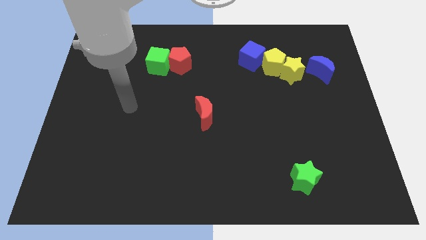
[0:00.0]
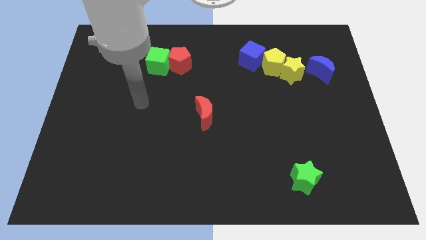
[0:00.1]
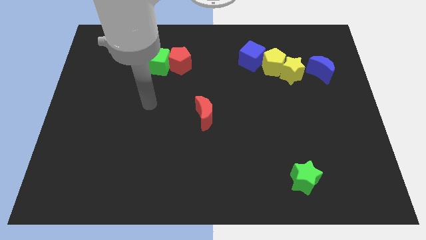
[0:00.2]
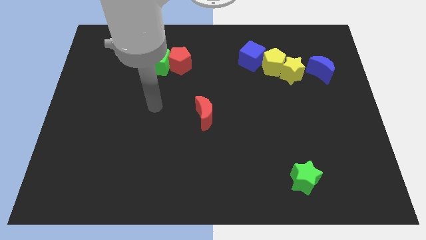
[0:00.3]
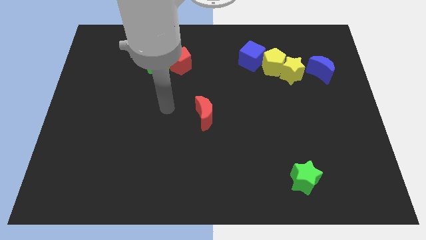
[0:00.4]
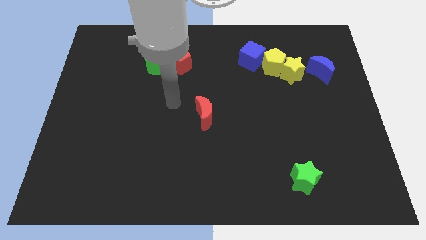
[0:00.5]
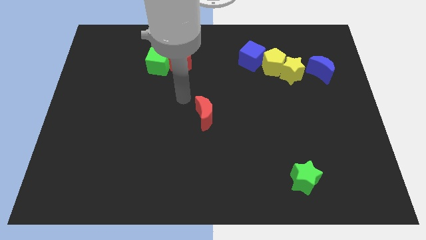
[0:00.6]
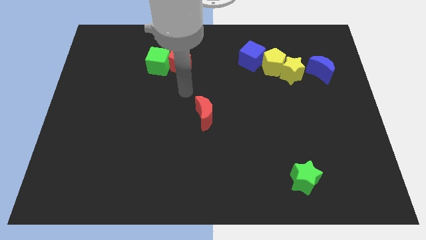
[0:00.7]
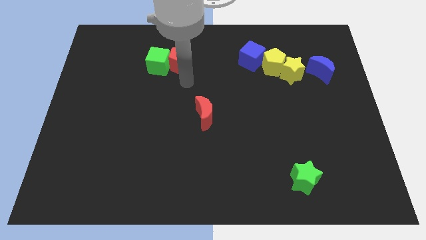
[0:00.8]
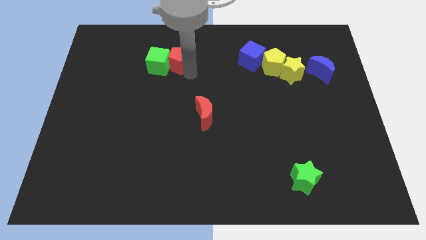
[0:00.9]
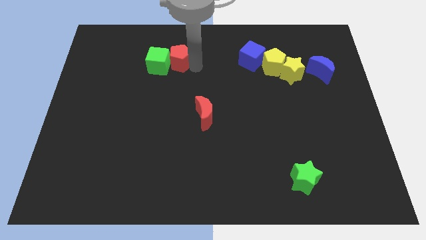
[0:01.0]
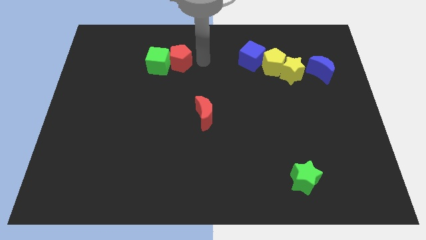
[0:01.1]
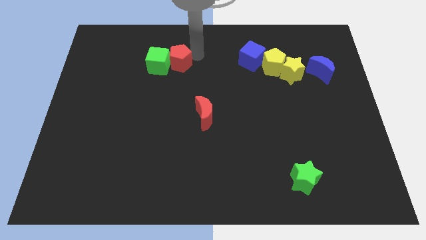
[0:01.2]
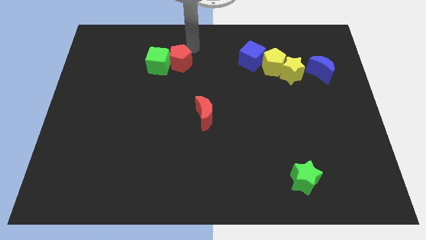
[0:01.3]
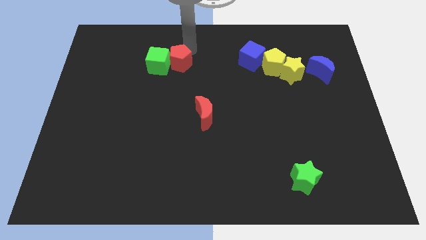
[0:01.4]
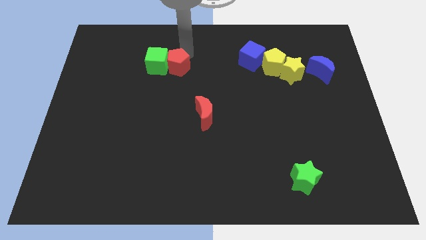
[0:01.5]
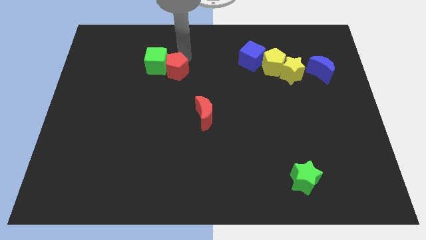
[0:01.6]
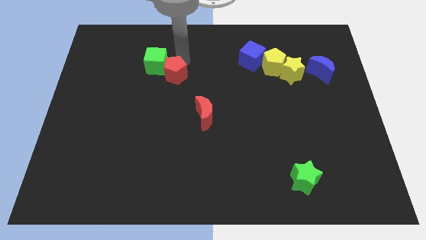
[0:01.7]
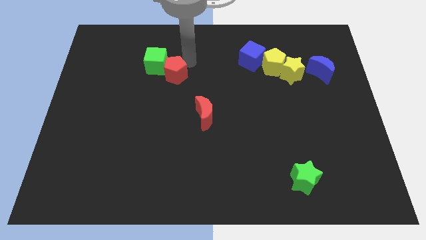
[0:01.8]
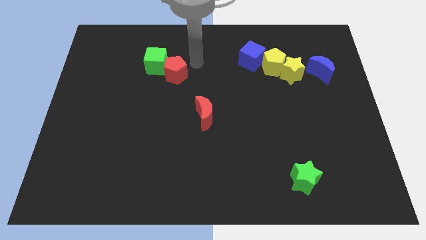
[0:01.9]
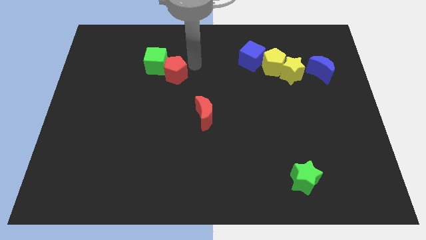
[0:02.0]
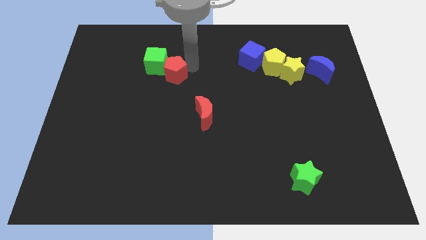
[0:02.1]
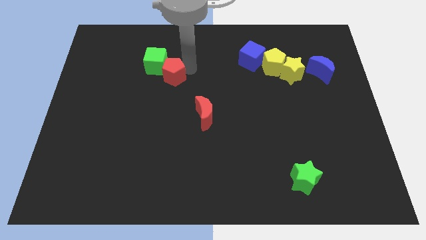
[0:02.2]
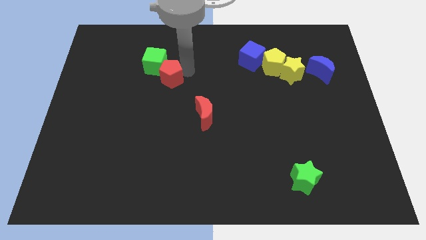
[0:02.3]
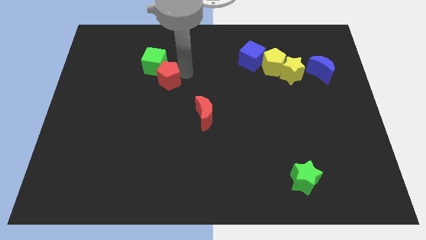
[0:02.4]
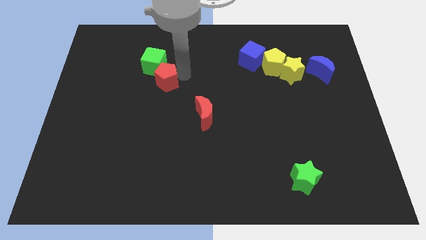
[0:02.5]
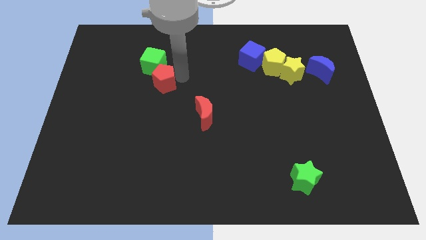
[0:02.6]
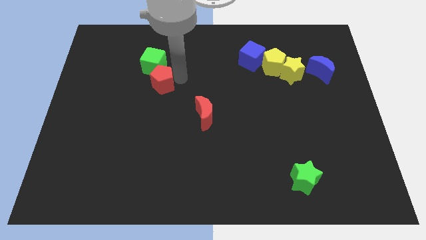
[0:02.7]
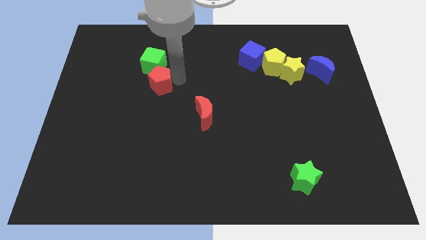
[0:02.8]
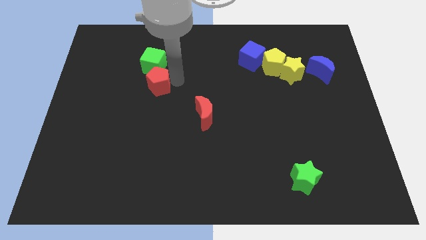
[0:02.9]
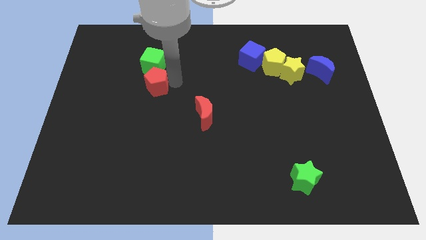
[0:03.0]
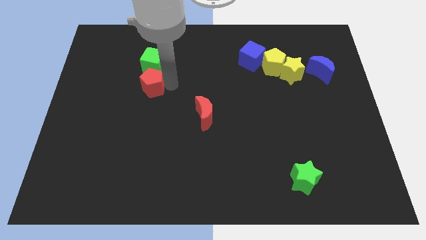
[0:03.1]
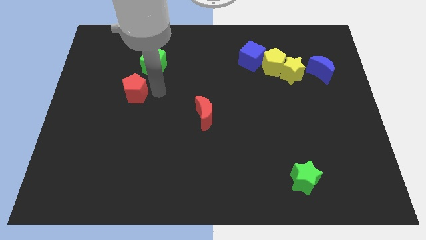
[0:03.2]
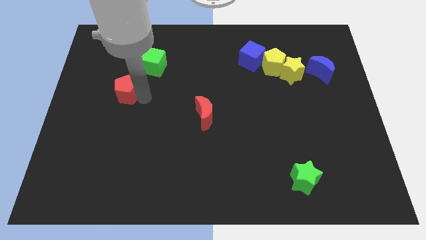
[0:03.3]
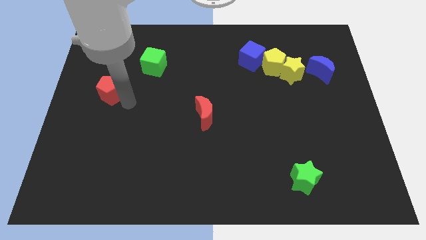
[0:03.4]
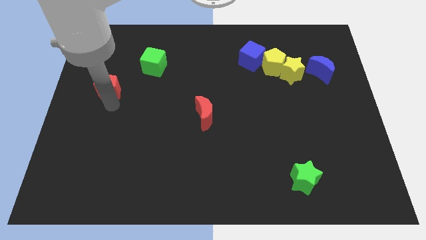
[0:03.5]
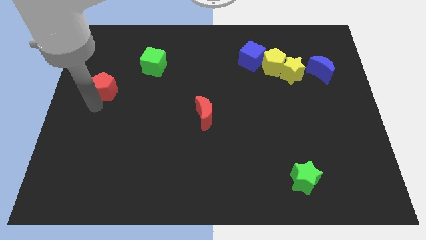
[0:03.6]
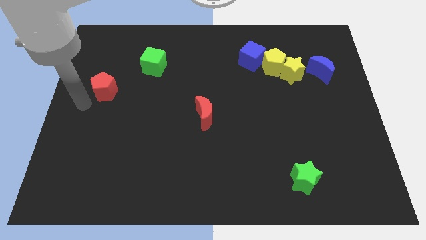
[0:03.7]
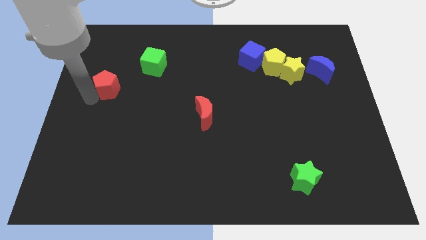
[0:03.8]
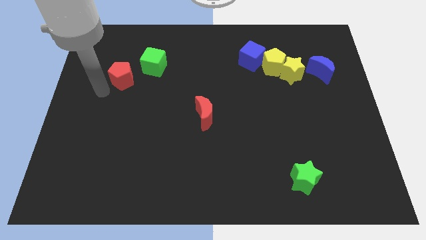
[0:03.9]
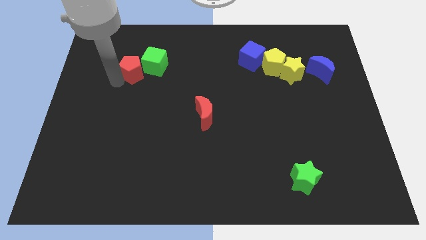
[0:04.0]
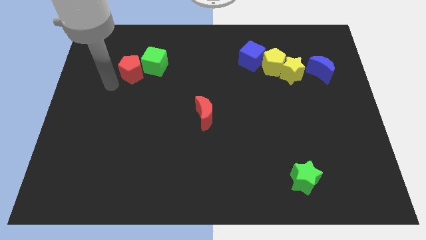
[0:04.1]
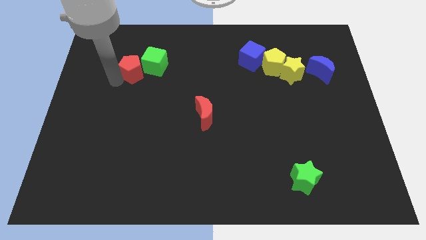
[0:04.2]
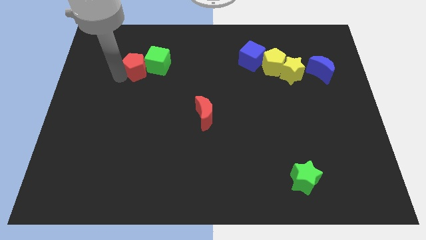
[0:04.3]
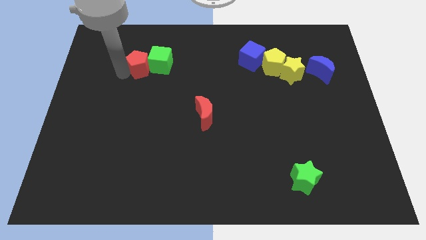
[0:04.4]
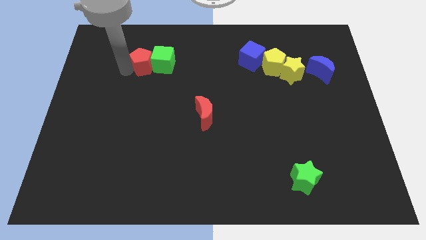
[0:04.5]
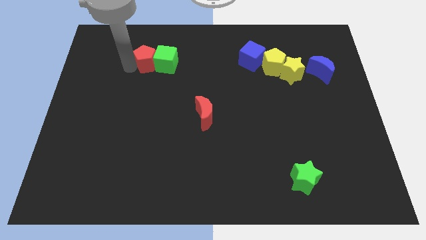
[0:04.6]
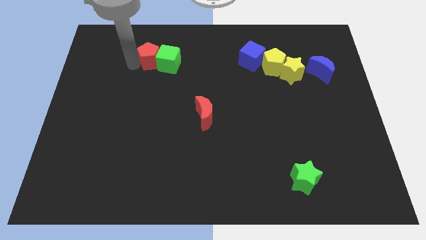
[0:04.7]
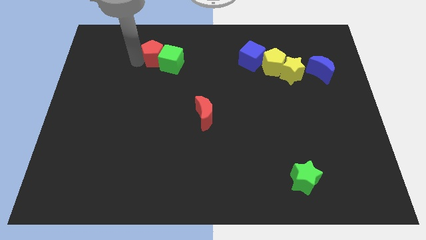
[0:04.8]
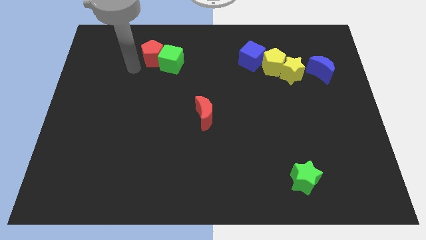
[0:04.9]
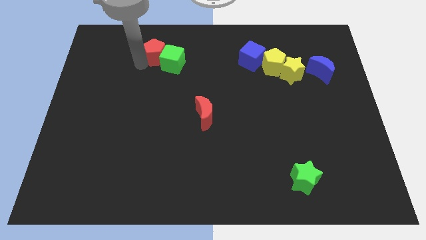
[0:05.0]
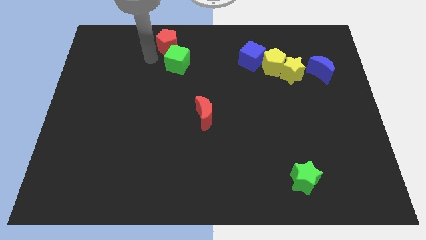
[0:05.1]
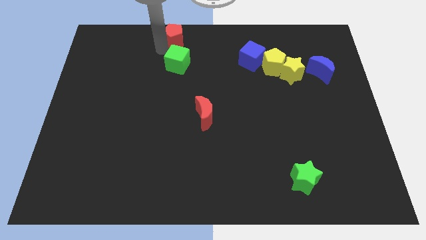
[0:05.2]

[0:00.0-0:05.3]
put the red pentagon to the top side

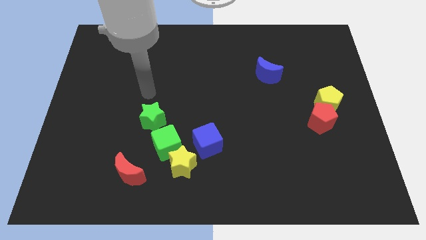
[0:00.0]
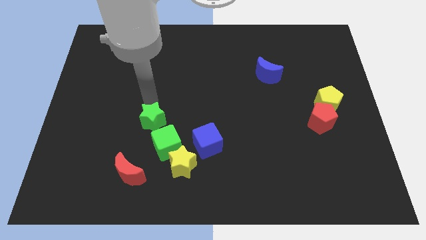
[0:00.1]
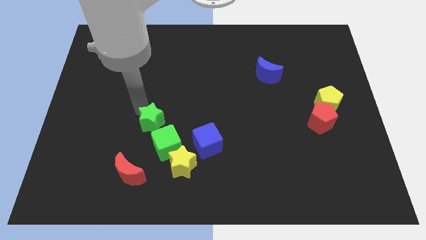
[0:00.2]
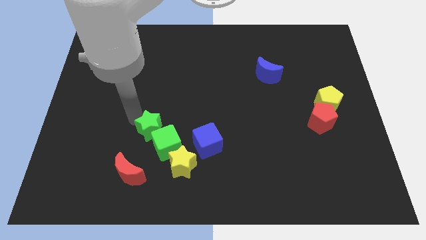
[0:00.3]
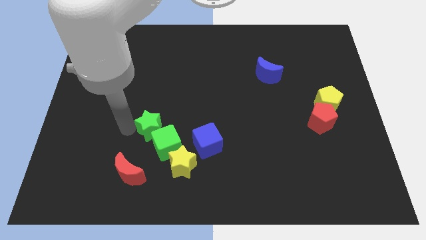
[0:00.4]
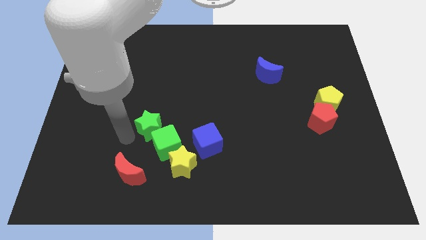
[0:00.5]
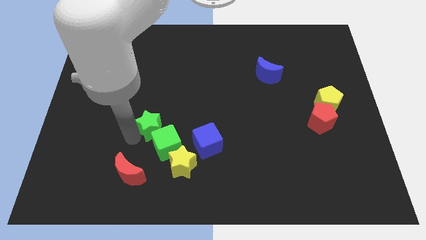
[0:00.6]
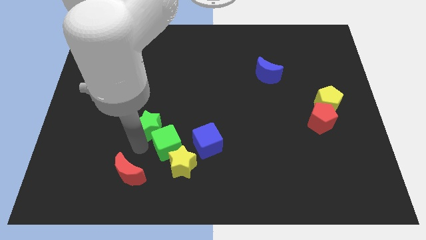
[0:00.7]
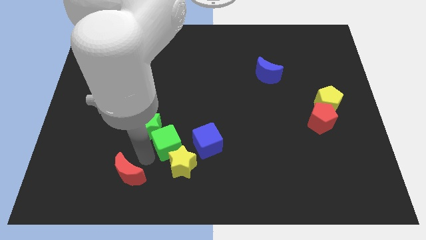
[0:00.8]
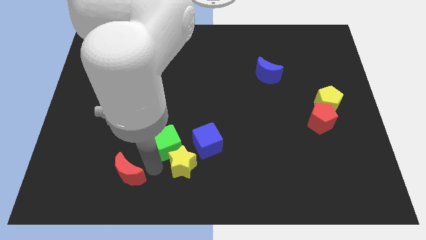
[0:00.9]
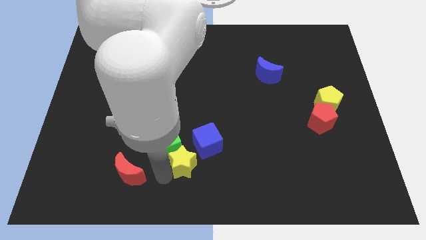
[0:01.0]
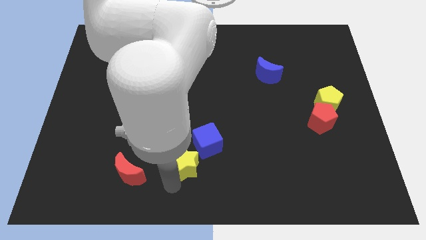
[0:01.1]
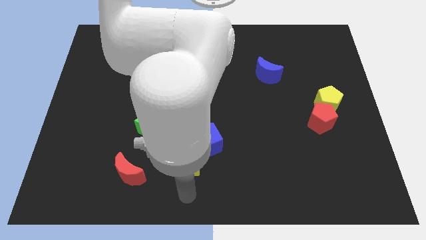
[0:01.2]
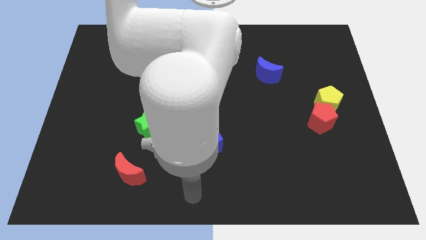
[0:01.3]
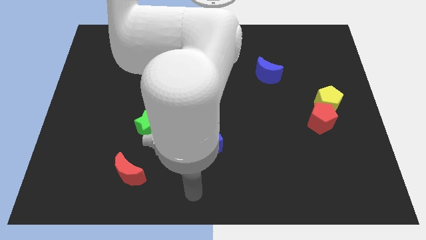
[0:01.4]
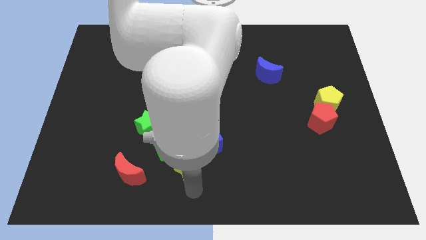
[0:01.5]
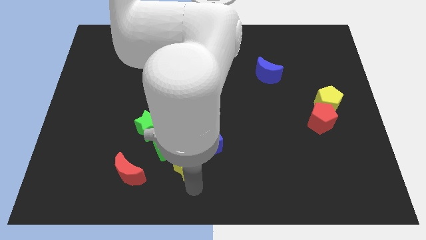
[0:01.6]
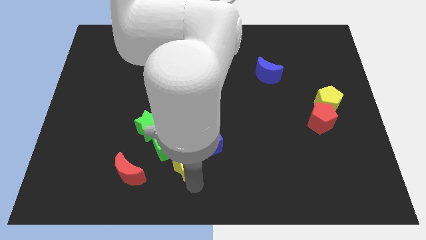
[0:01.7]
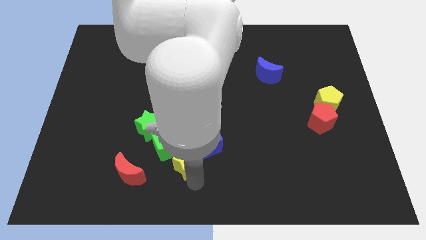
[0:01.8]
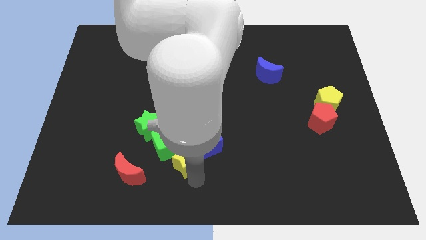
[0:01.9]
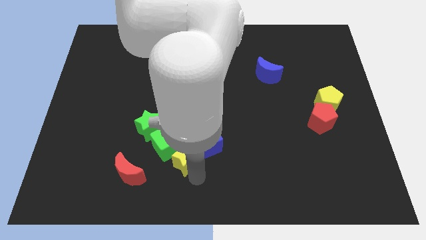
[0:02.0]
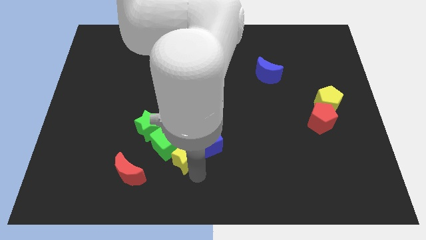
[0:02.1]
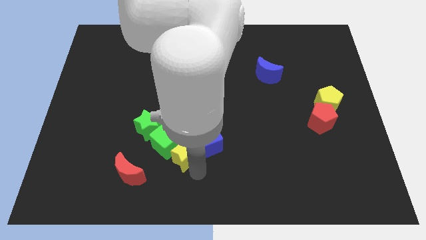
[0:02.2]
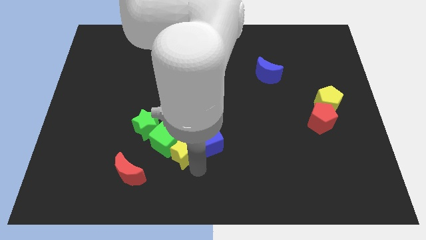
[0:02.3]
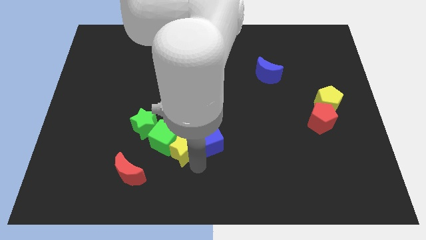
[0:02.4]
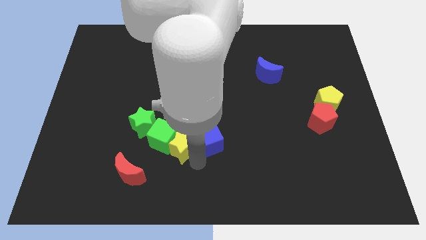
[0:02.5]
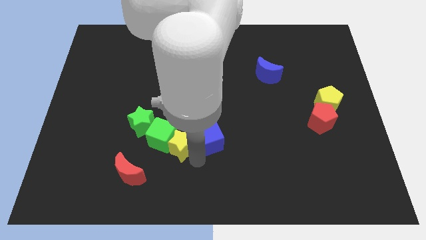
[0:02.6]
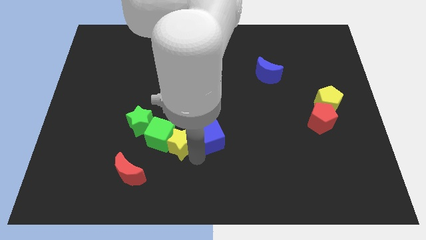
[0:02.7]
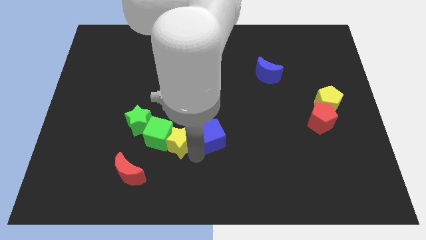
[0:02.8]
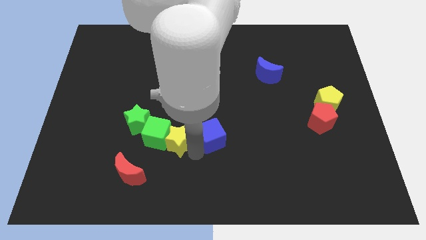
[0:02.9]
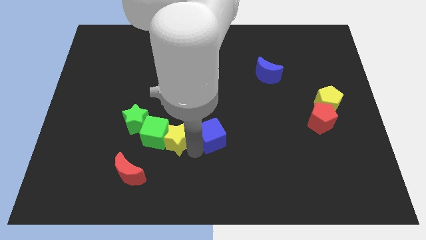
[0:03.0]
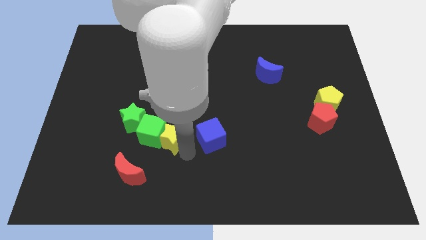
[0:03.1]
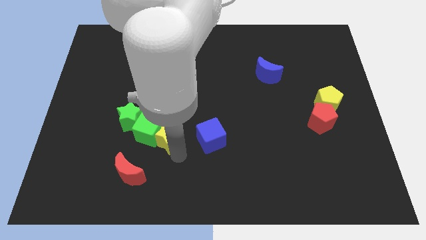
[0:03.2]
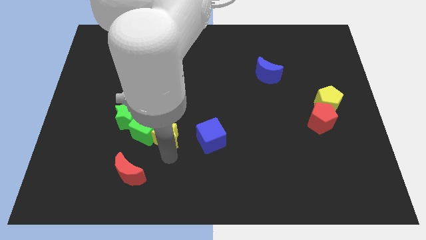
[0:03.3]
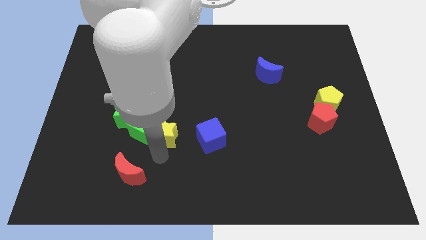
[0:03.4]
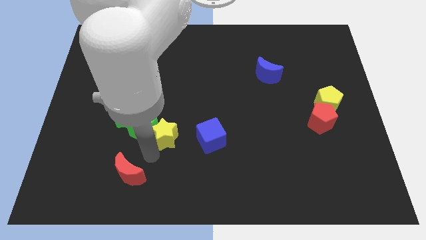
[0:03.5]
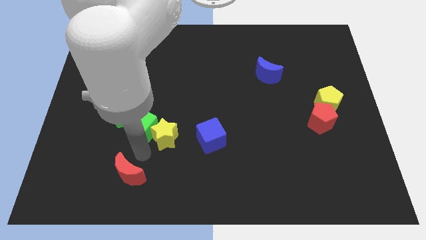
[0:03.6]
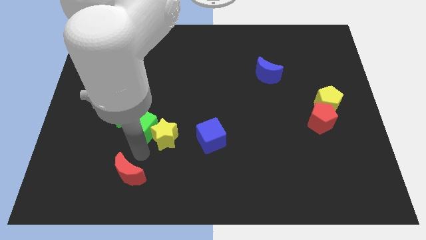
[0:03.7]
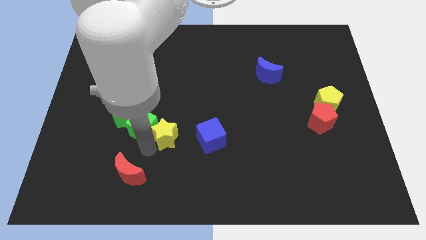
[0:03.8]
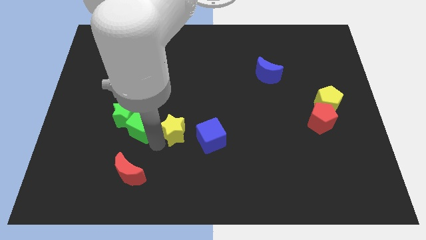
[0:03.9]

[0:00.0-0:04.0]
push the yellow star to the center of the board
